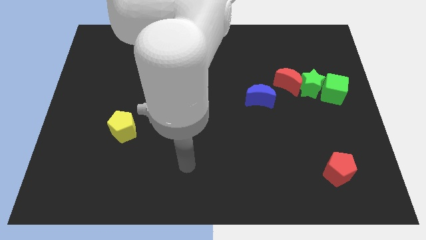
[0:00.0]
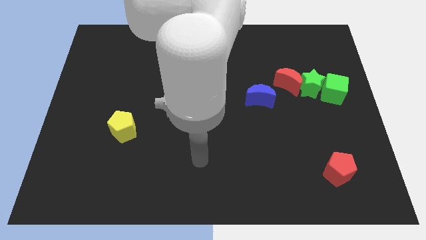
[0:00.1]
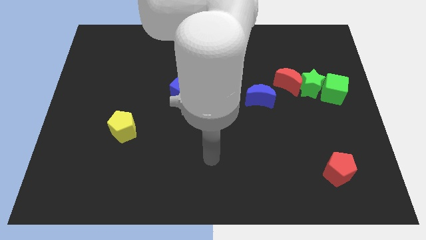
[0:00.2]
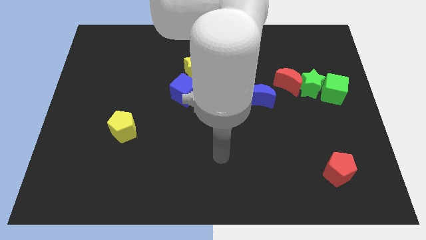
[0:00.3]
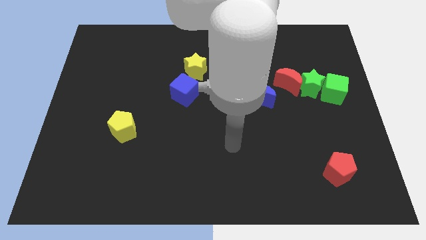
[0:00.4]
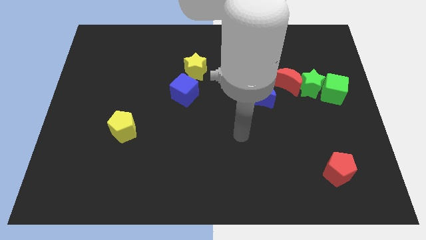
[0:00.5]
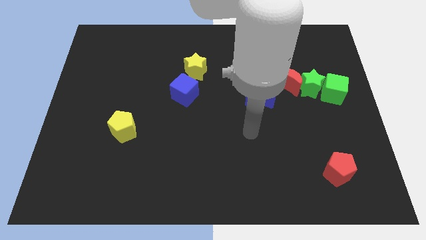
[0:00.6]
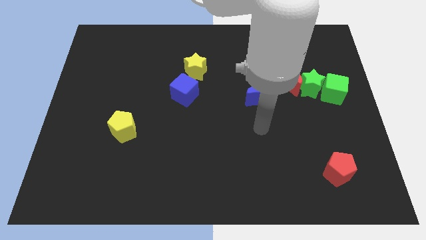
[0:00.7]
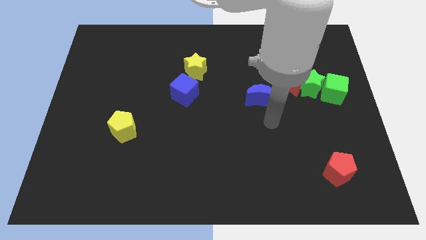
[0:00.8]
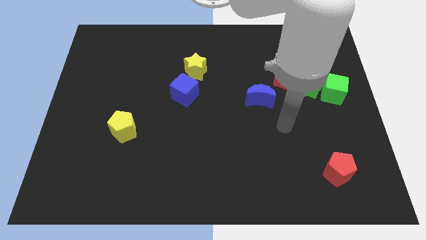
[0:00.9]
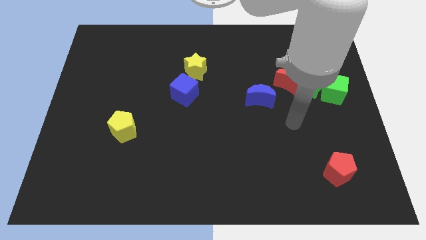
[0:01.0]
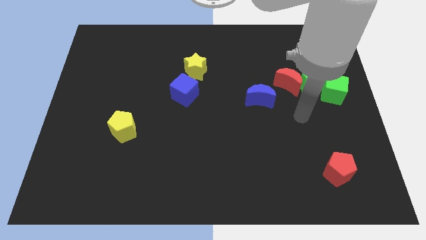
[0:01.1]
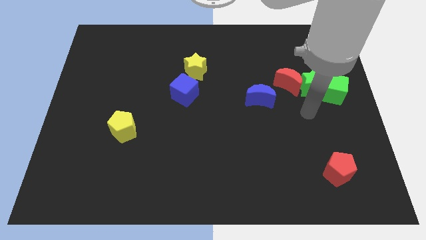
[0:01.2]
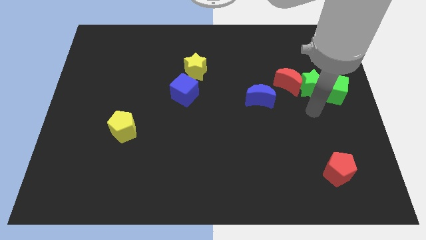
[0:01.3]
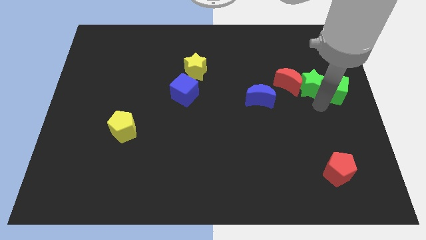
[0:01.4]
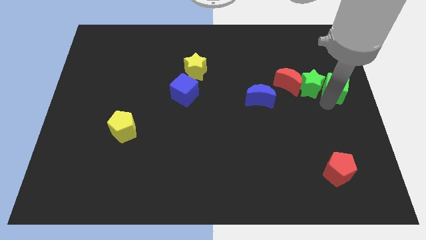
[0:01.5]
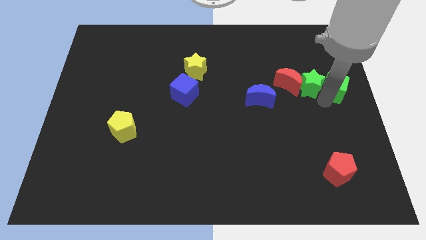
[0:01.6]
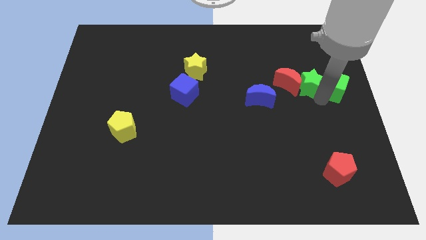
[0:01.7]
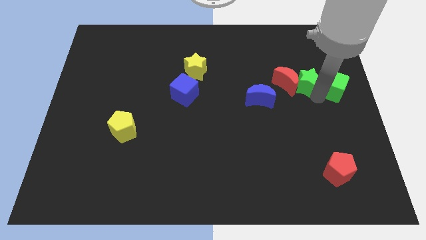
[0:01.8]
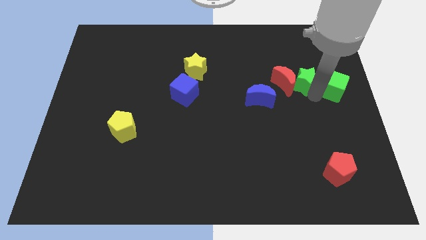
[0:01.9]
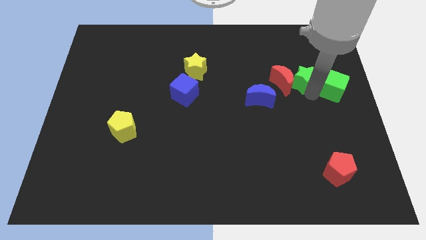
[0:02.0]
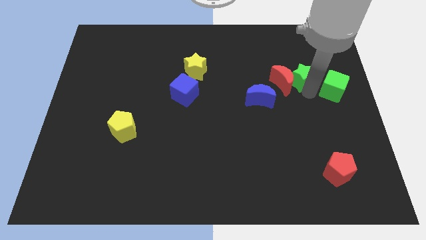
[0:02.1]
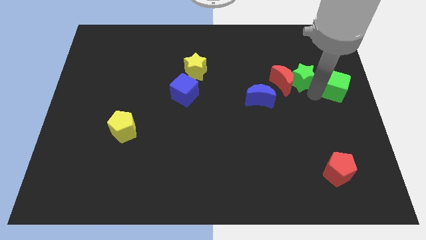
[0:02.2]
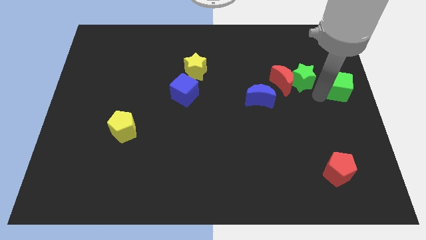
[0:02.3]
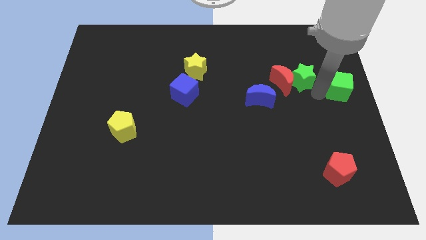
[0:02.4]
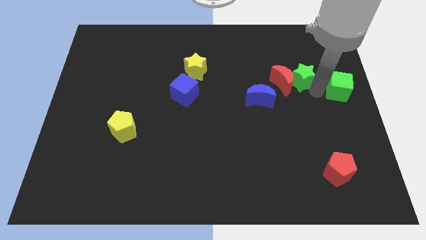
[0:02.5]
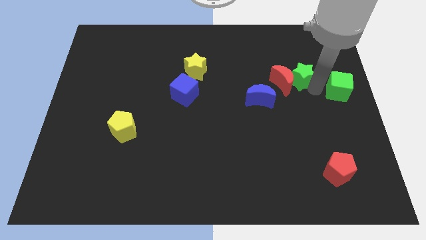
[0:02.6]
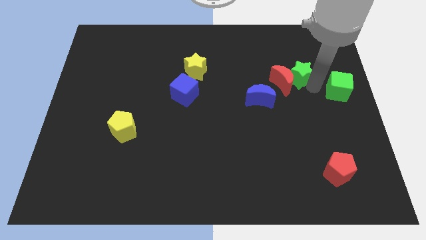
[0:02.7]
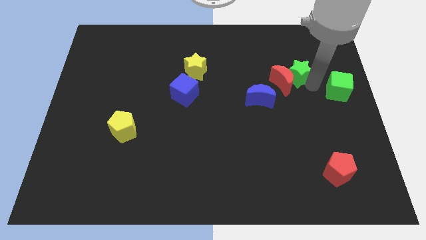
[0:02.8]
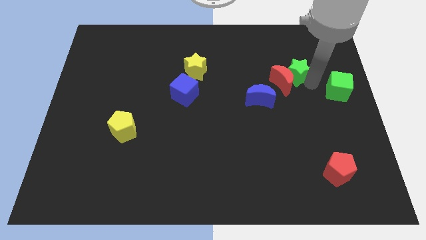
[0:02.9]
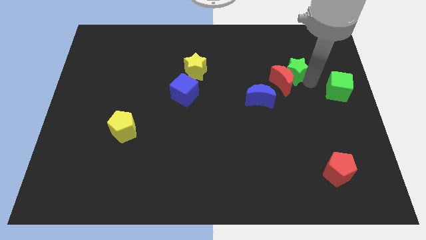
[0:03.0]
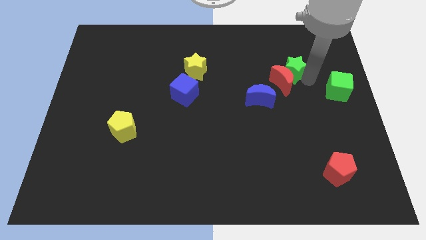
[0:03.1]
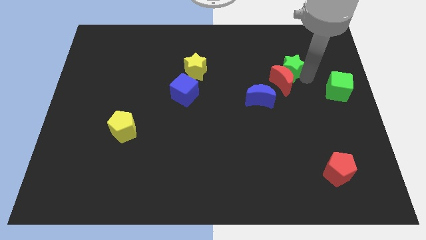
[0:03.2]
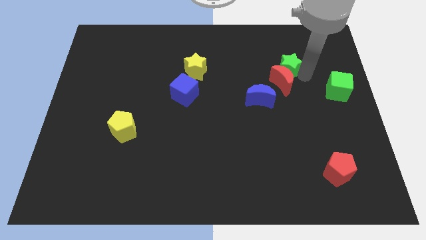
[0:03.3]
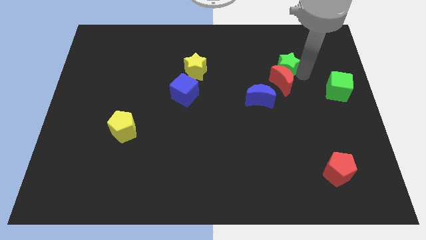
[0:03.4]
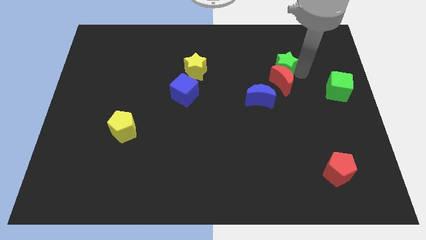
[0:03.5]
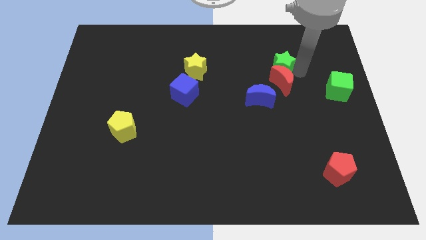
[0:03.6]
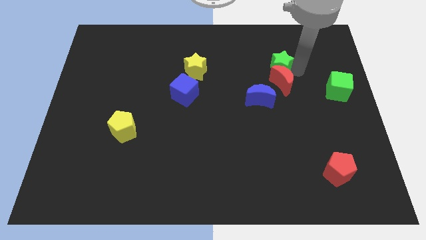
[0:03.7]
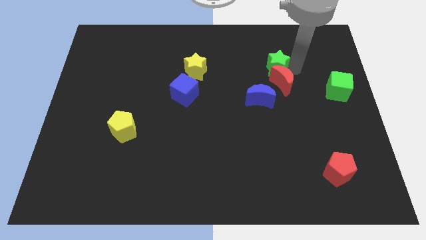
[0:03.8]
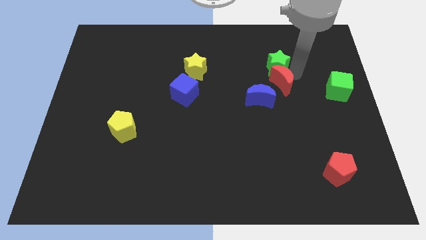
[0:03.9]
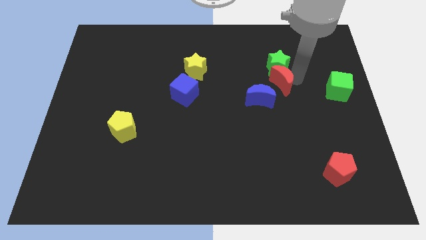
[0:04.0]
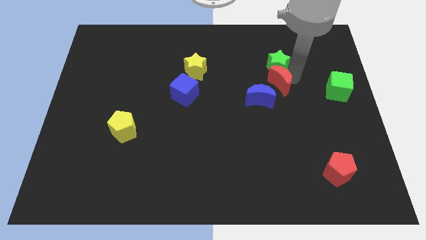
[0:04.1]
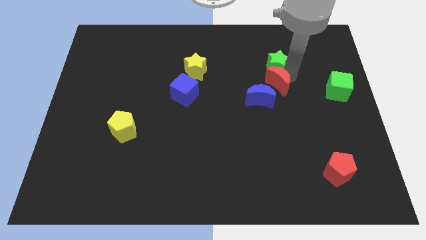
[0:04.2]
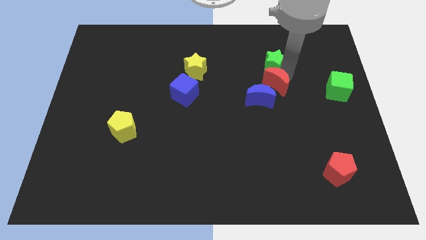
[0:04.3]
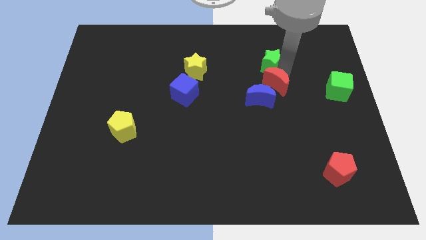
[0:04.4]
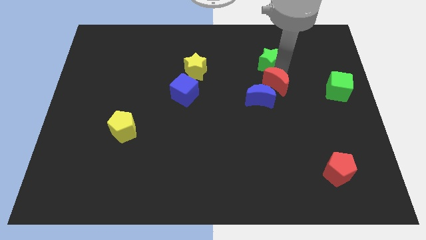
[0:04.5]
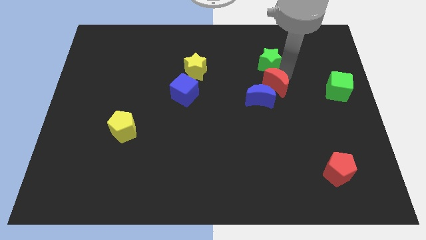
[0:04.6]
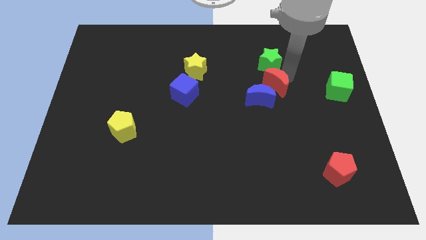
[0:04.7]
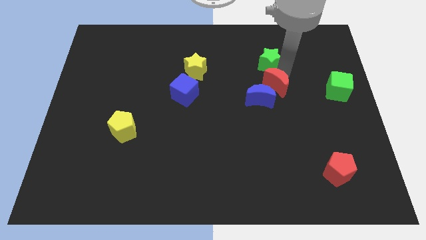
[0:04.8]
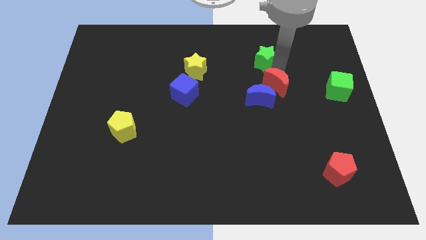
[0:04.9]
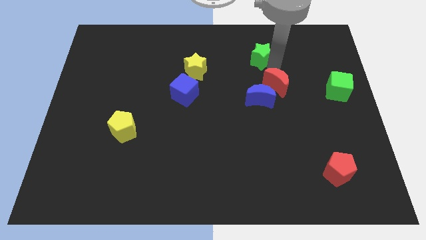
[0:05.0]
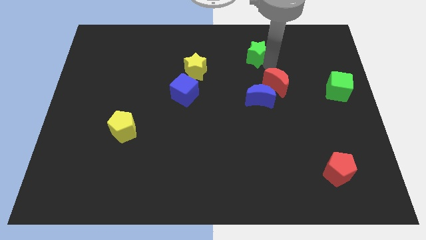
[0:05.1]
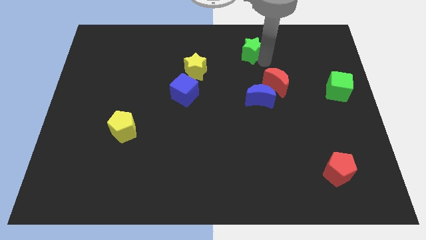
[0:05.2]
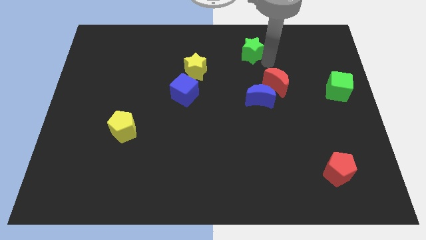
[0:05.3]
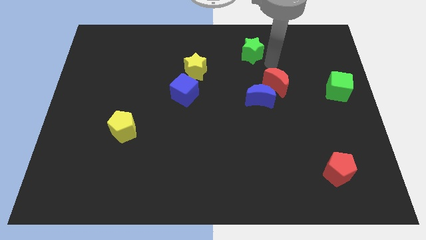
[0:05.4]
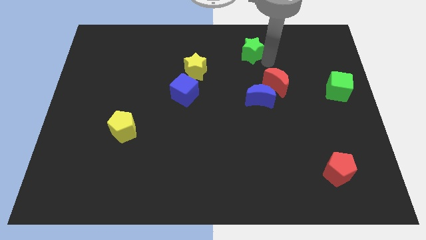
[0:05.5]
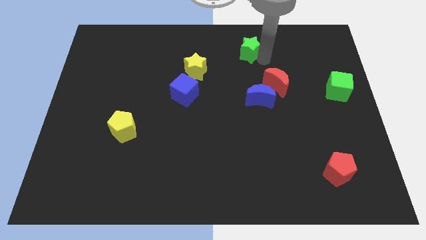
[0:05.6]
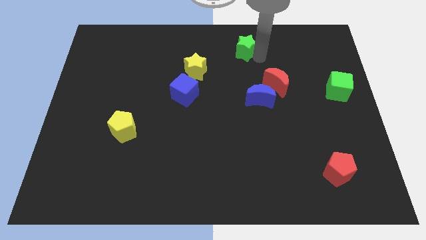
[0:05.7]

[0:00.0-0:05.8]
put the green star to the top side

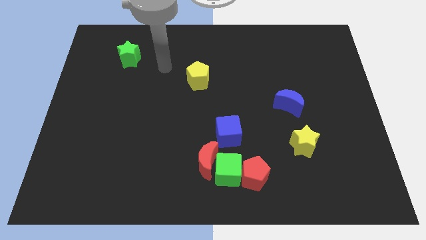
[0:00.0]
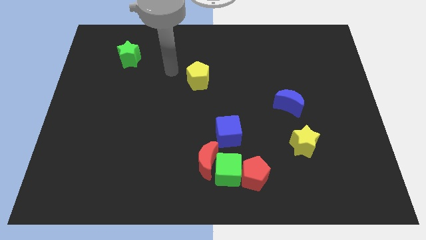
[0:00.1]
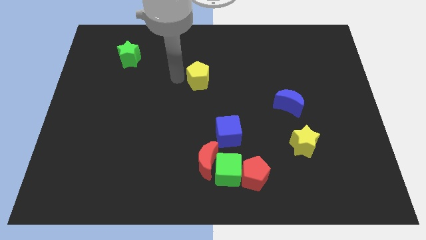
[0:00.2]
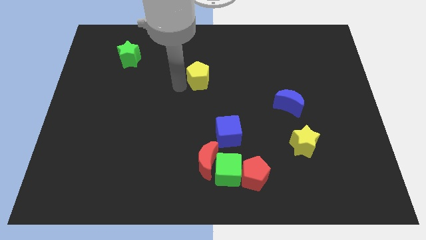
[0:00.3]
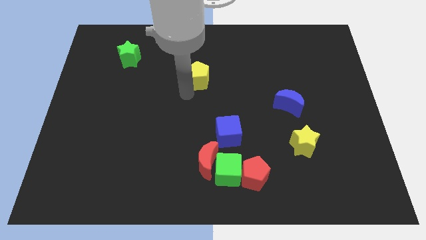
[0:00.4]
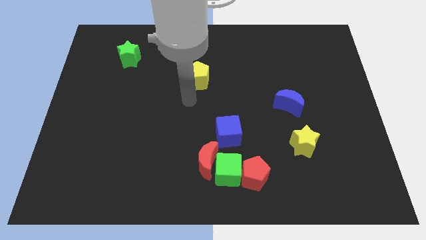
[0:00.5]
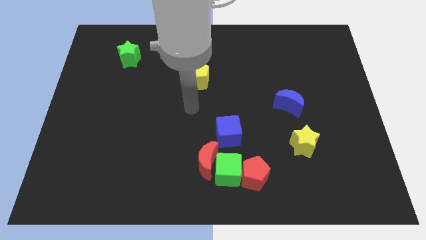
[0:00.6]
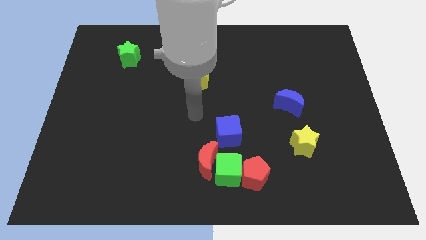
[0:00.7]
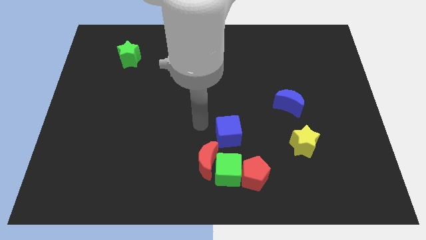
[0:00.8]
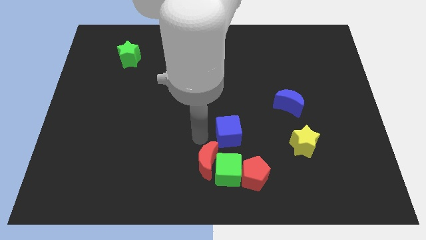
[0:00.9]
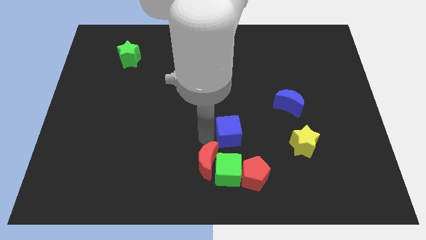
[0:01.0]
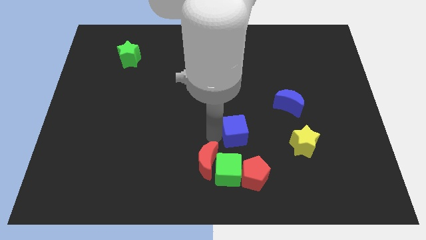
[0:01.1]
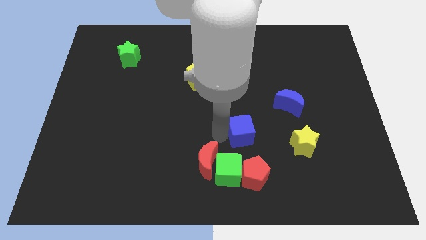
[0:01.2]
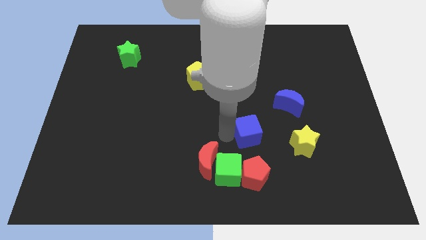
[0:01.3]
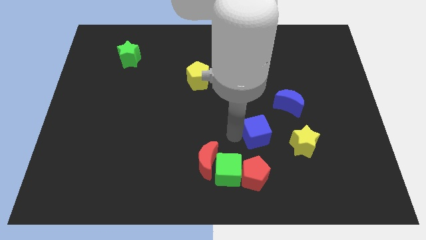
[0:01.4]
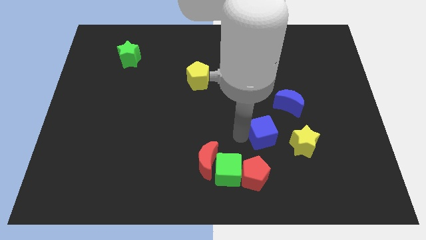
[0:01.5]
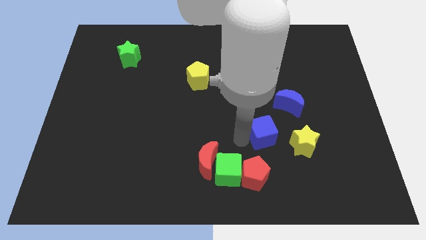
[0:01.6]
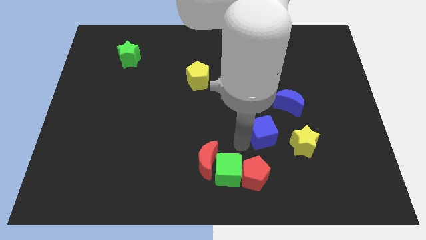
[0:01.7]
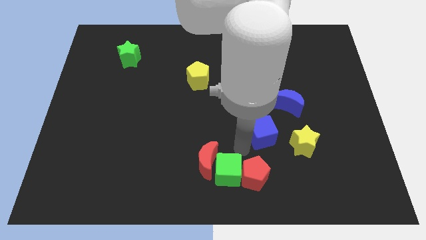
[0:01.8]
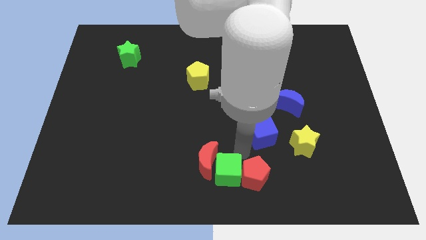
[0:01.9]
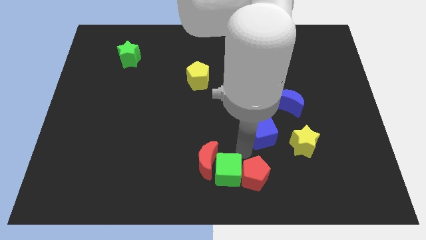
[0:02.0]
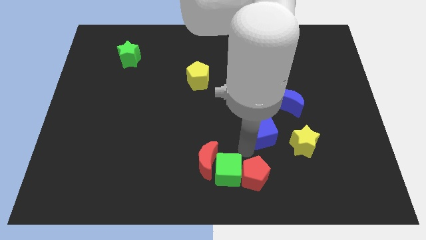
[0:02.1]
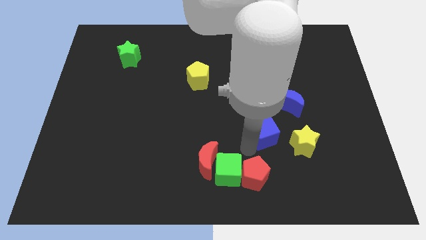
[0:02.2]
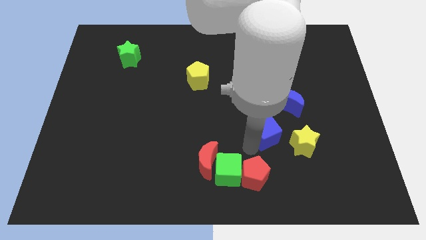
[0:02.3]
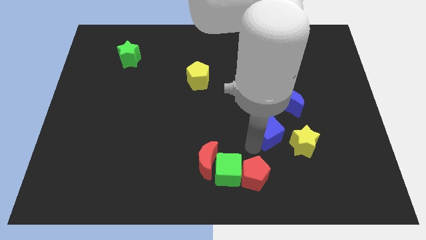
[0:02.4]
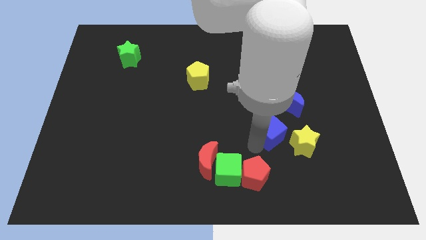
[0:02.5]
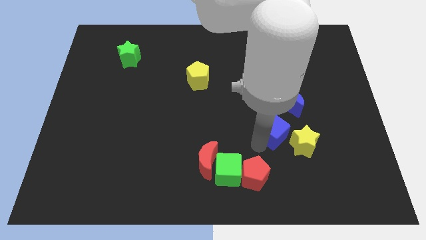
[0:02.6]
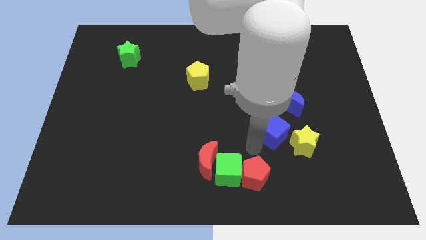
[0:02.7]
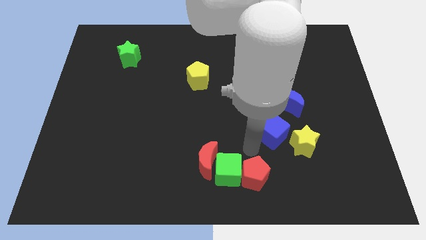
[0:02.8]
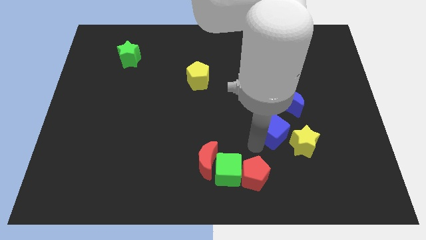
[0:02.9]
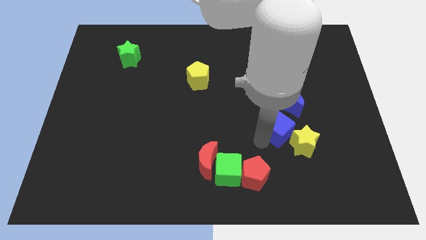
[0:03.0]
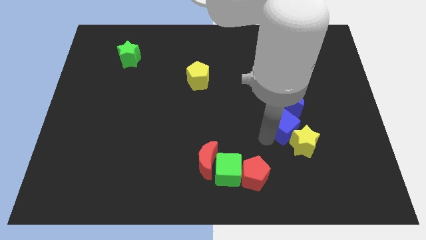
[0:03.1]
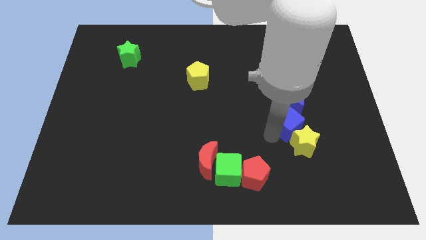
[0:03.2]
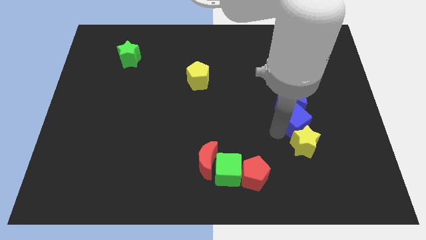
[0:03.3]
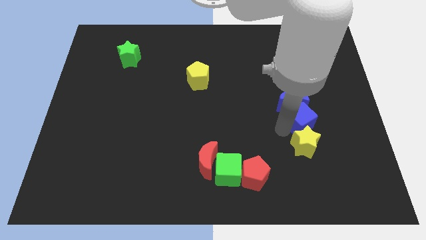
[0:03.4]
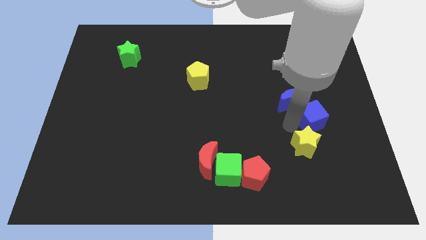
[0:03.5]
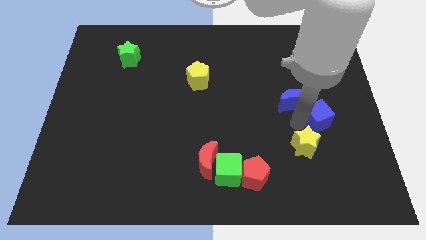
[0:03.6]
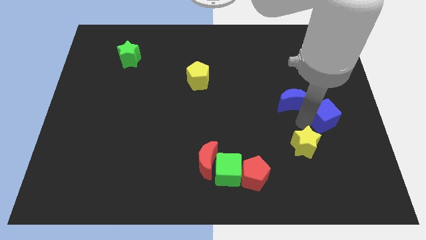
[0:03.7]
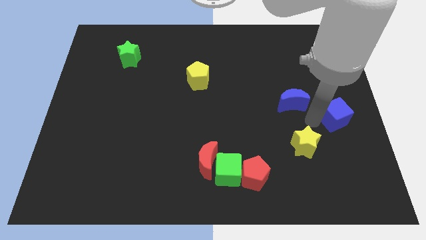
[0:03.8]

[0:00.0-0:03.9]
push the blue cube to the center right
